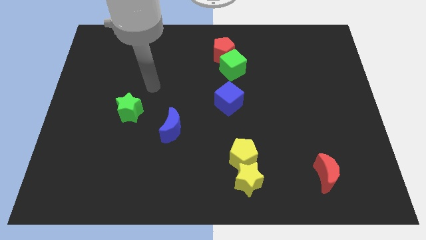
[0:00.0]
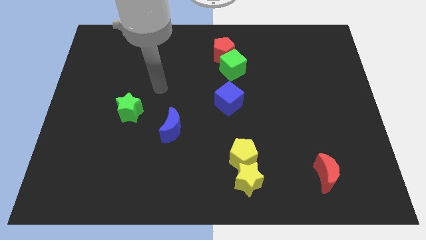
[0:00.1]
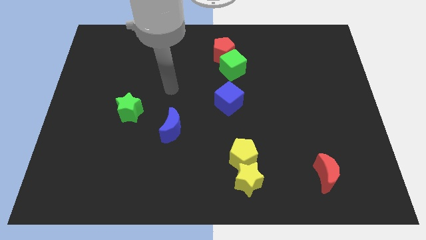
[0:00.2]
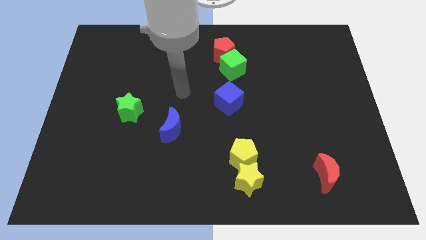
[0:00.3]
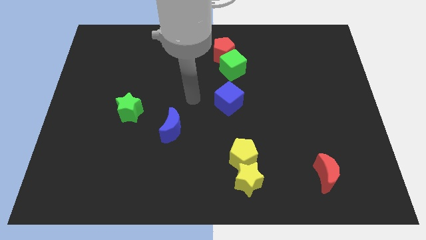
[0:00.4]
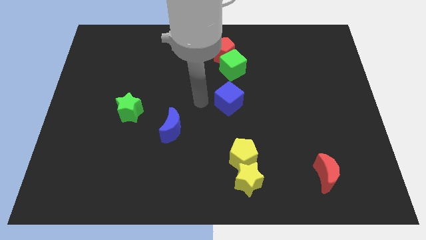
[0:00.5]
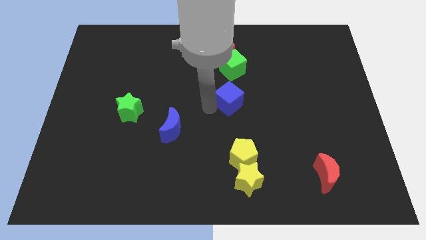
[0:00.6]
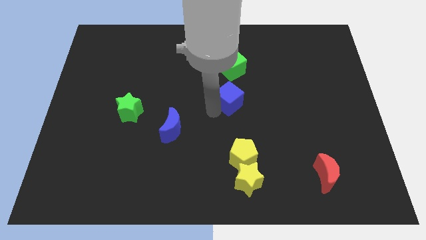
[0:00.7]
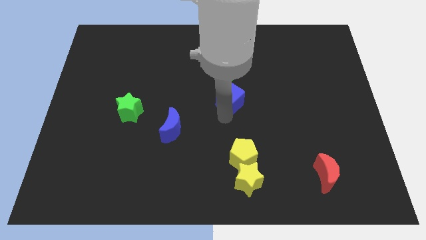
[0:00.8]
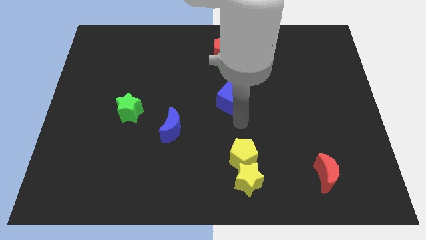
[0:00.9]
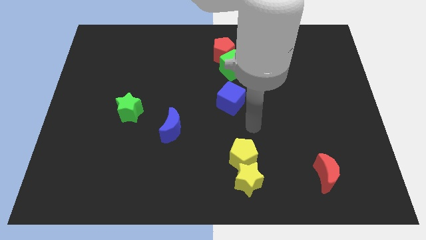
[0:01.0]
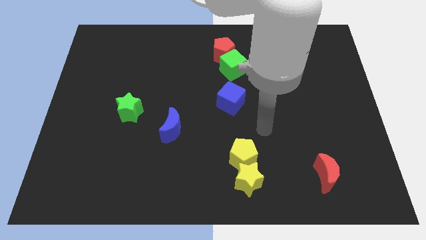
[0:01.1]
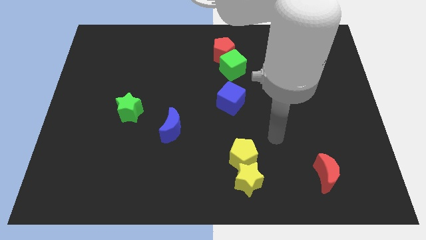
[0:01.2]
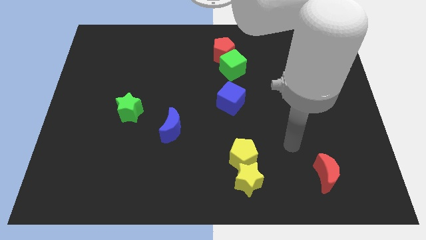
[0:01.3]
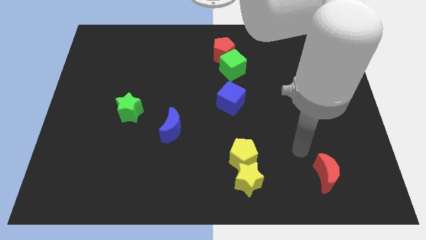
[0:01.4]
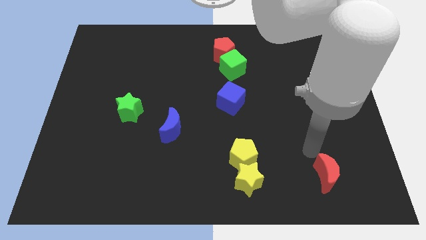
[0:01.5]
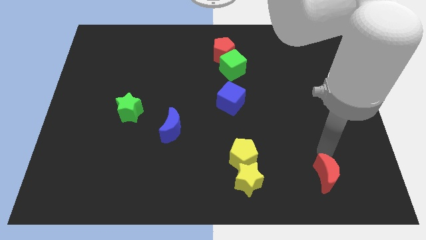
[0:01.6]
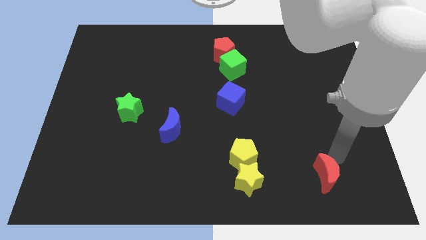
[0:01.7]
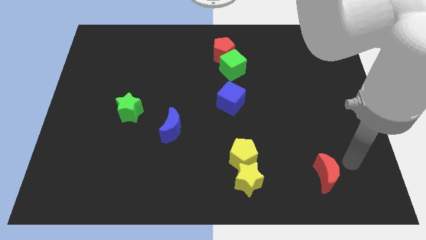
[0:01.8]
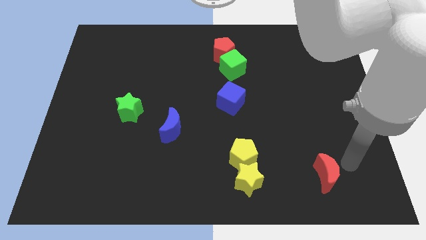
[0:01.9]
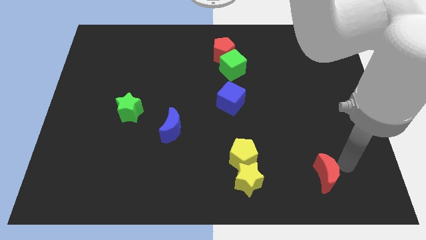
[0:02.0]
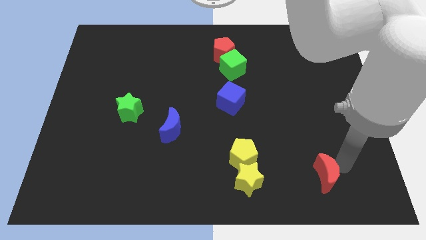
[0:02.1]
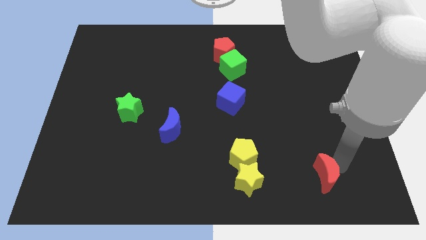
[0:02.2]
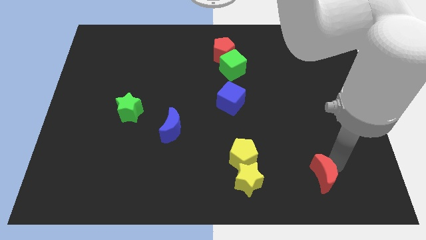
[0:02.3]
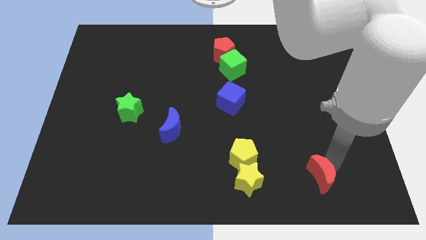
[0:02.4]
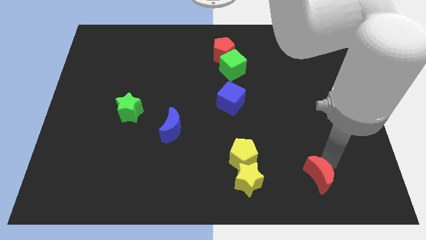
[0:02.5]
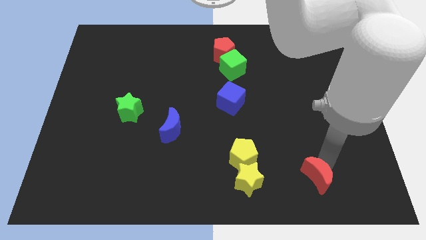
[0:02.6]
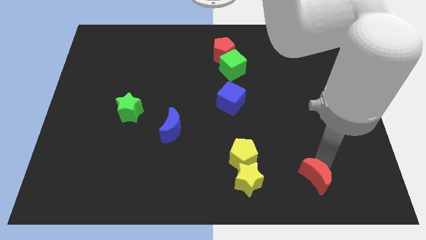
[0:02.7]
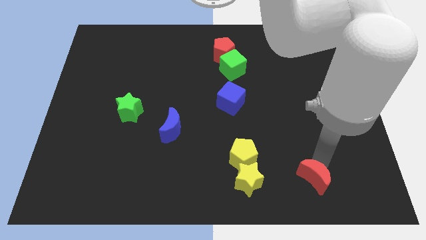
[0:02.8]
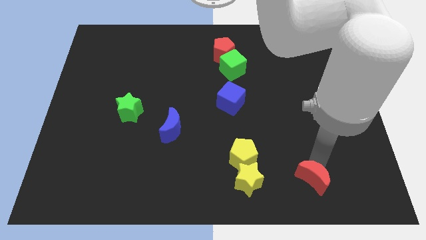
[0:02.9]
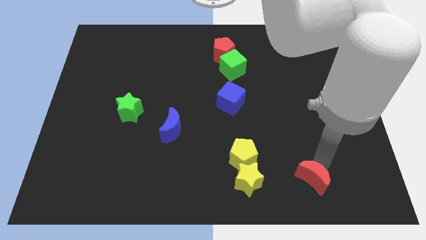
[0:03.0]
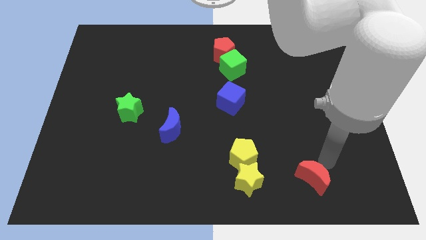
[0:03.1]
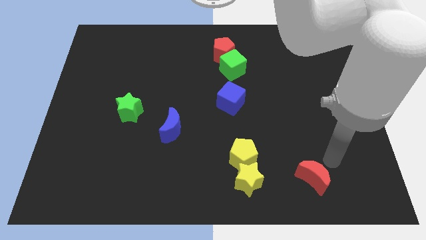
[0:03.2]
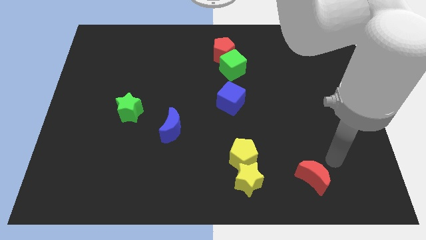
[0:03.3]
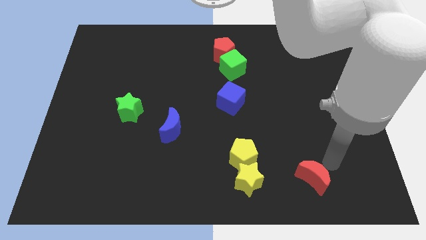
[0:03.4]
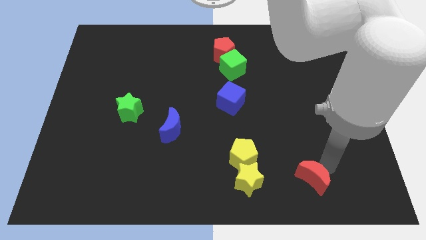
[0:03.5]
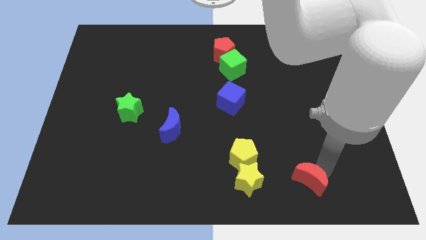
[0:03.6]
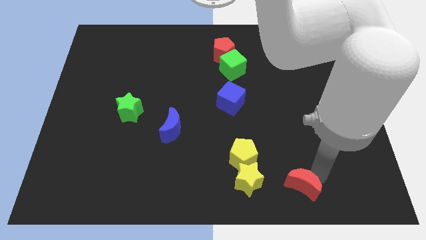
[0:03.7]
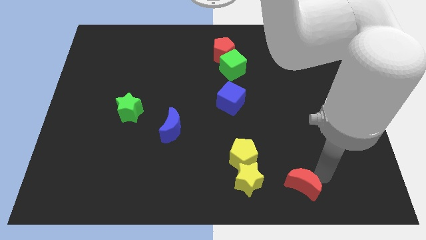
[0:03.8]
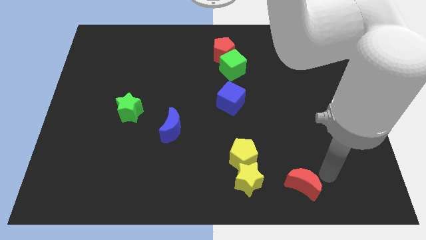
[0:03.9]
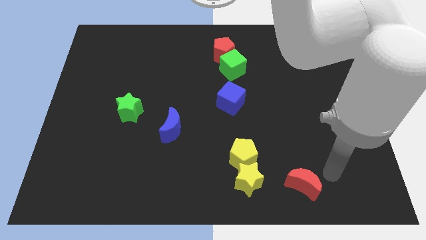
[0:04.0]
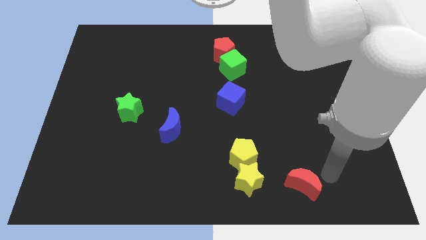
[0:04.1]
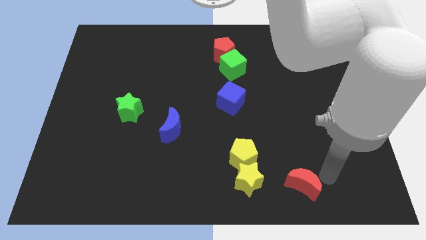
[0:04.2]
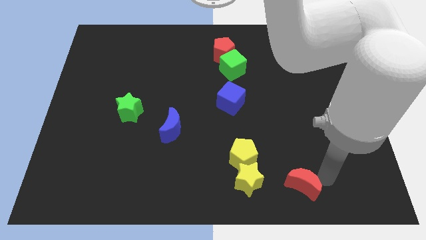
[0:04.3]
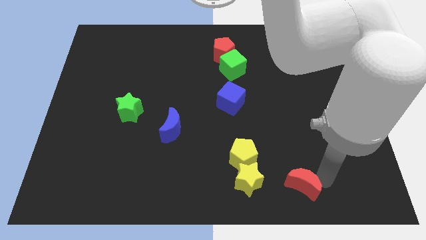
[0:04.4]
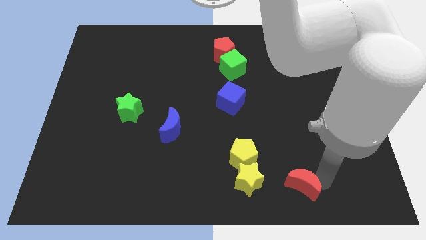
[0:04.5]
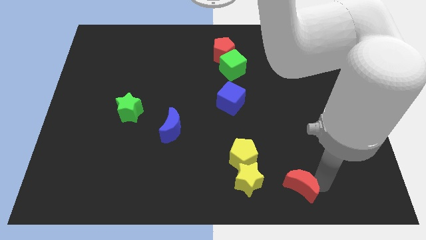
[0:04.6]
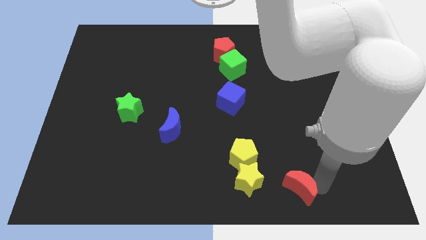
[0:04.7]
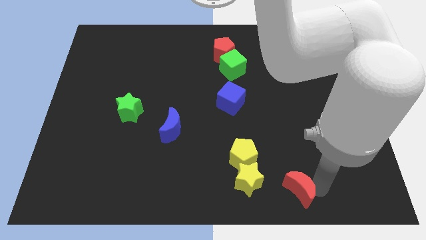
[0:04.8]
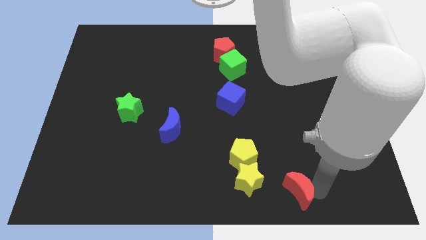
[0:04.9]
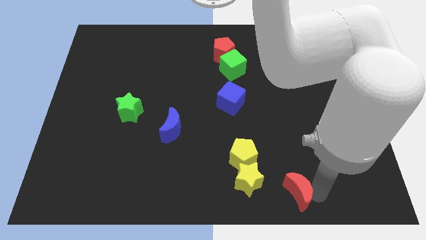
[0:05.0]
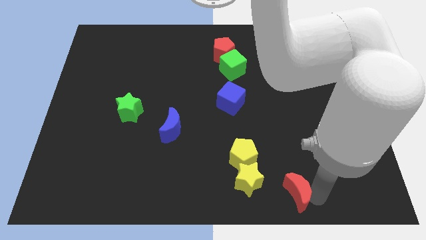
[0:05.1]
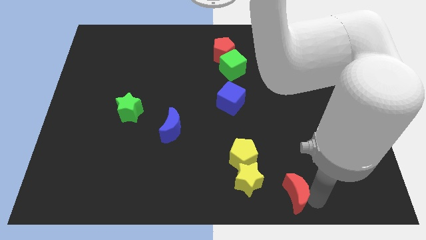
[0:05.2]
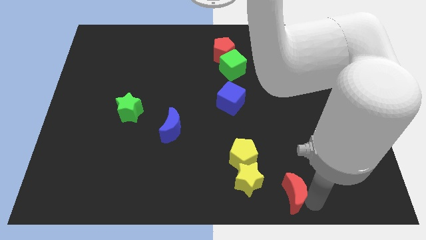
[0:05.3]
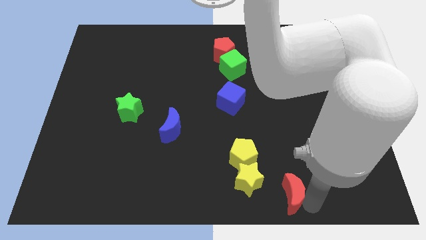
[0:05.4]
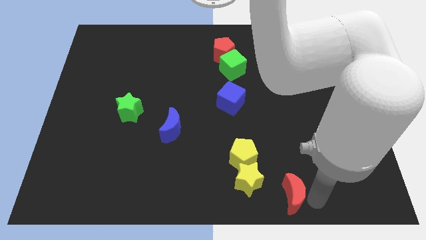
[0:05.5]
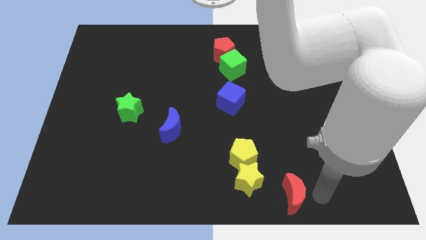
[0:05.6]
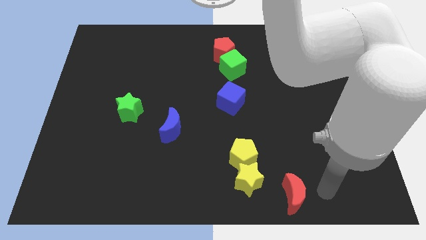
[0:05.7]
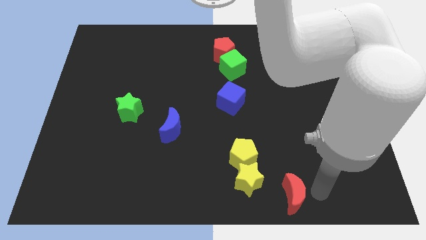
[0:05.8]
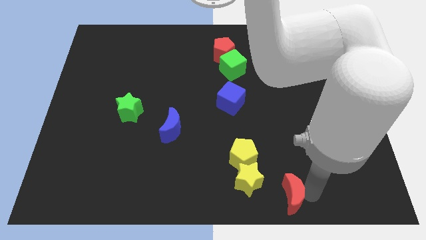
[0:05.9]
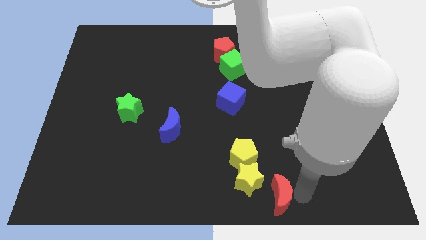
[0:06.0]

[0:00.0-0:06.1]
slide the red moon to the bottom side
